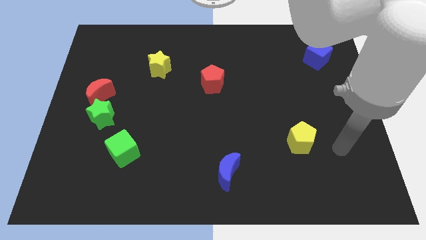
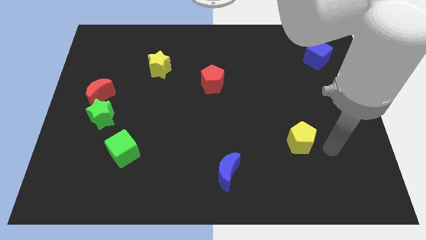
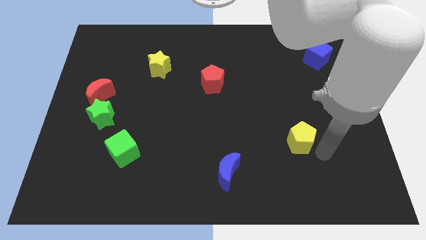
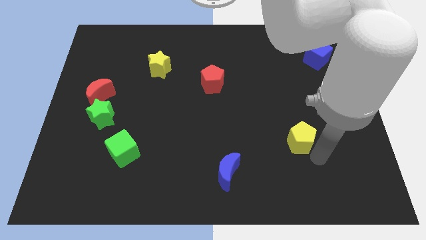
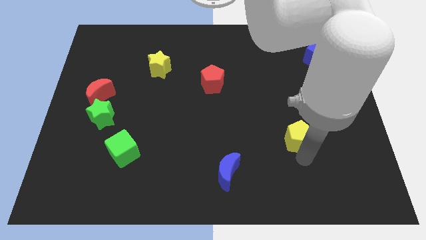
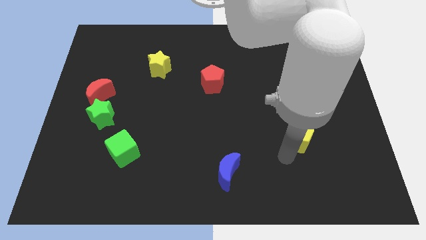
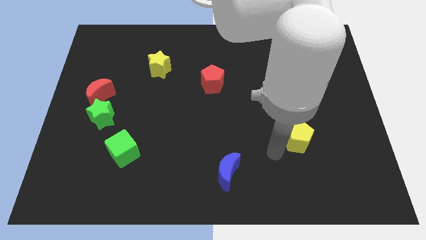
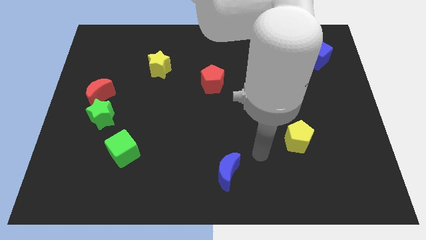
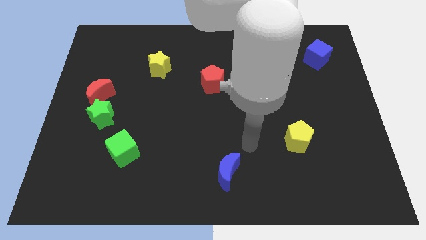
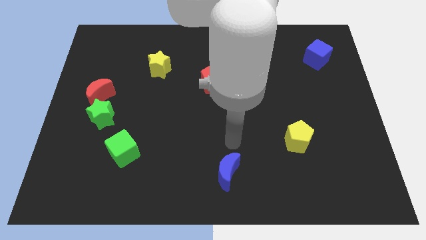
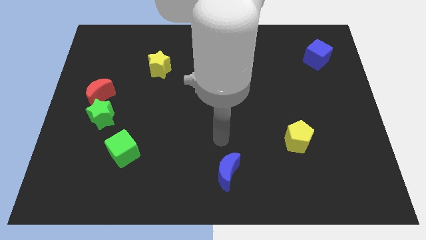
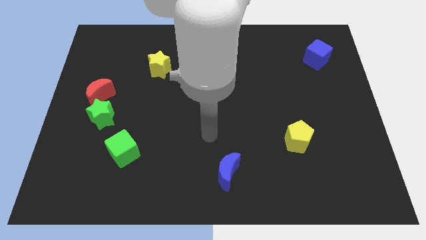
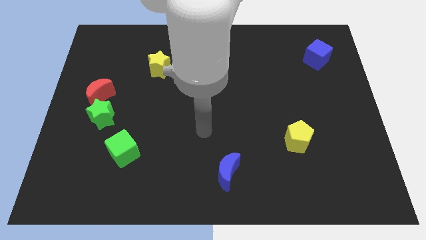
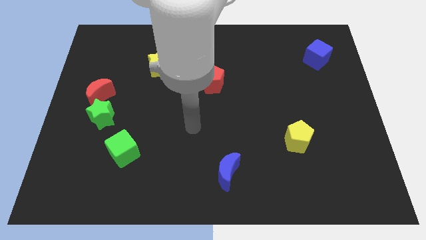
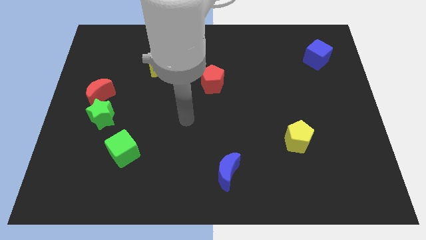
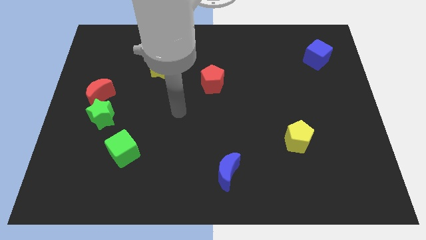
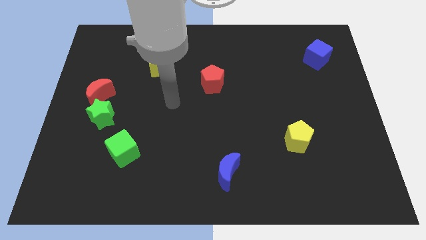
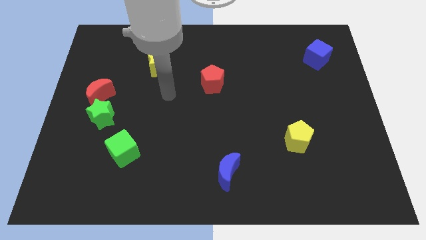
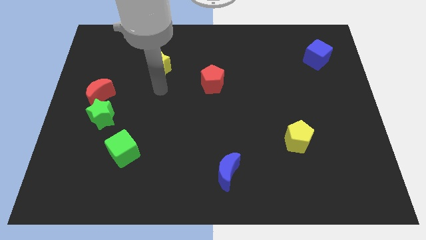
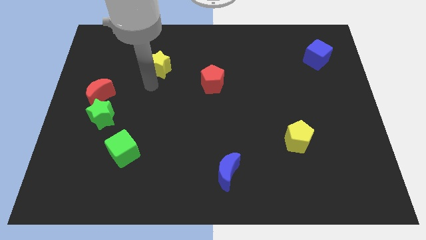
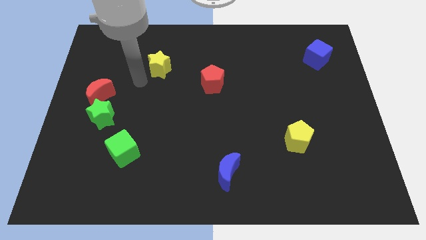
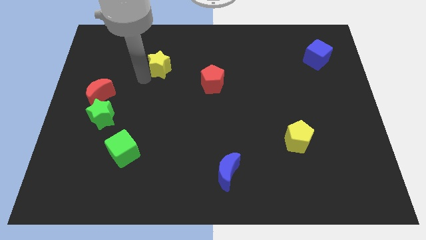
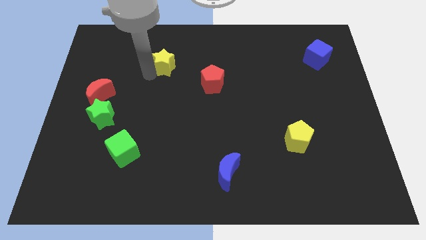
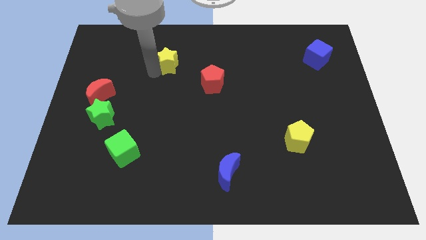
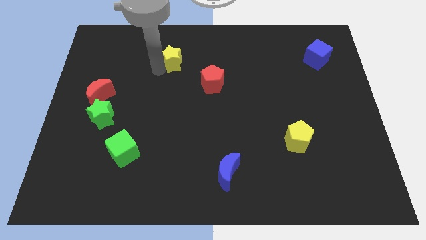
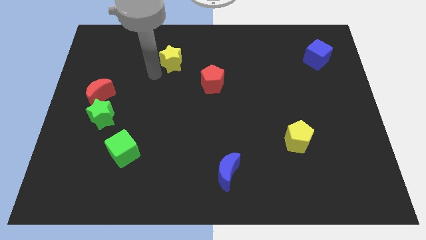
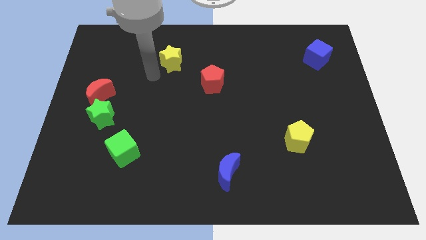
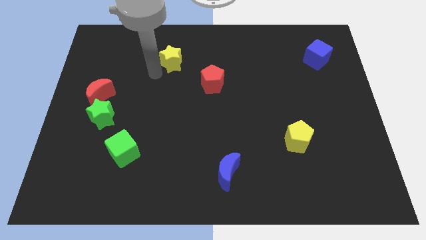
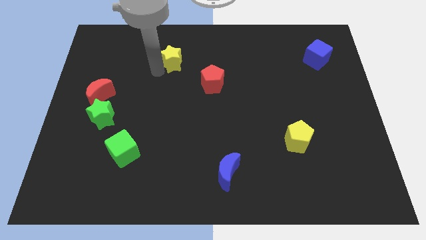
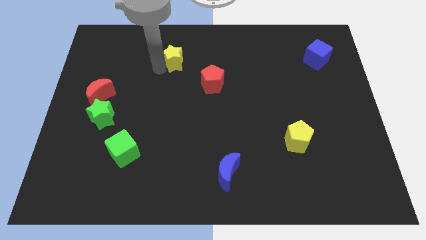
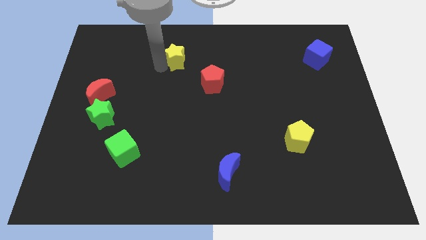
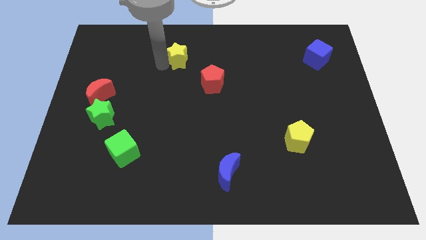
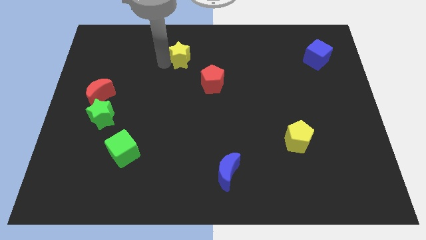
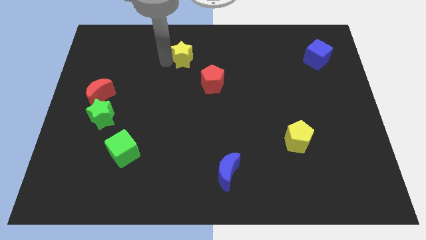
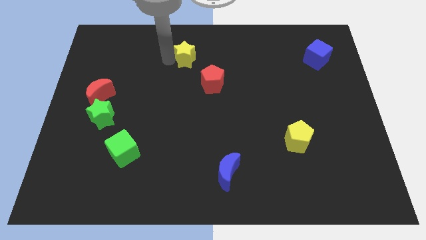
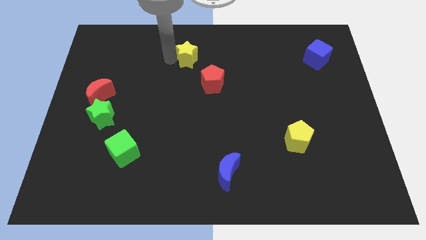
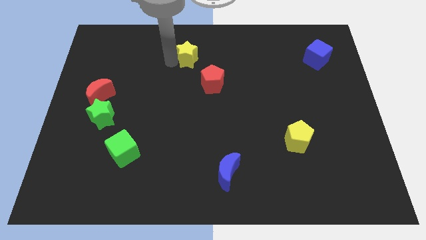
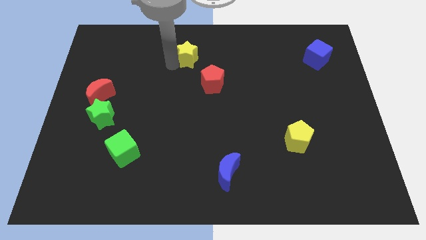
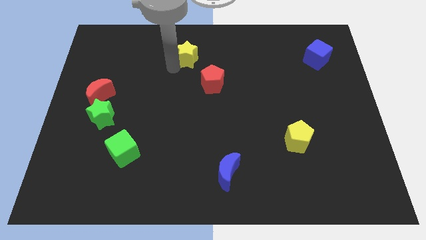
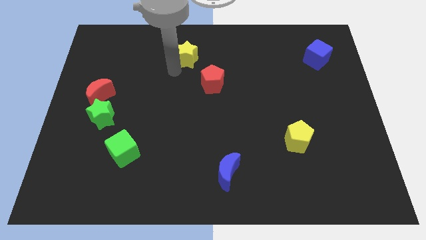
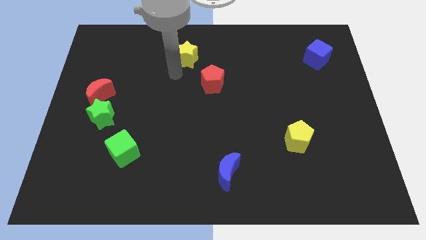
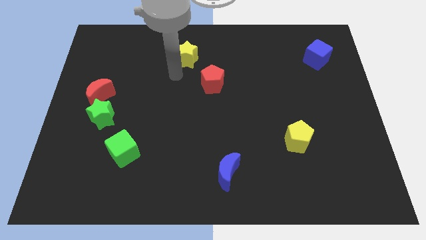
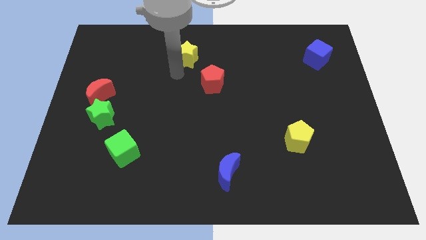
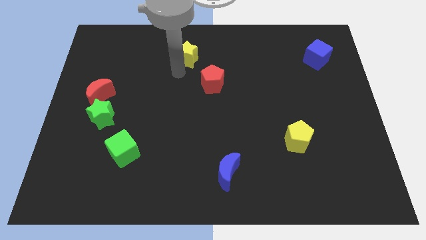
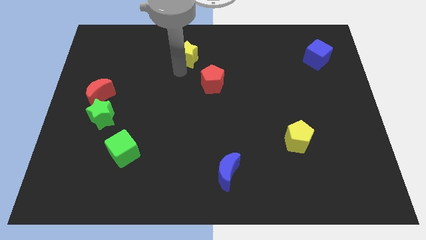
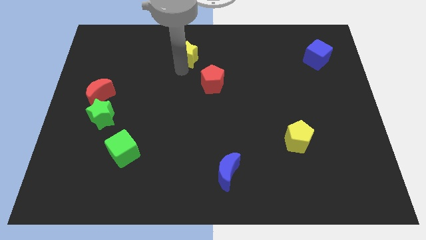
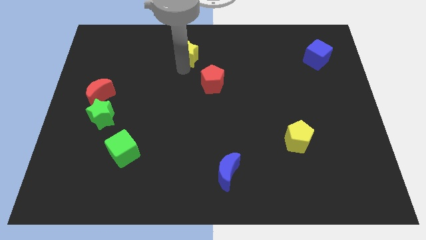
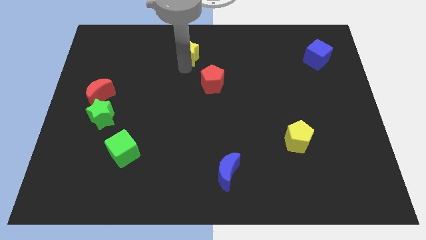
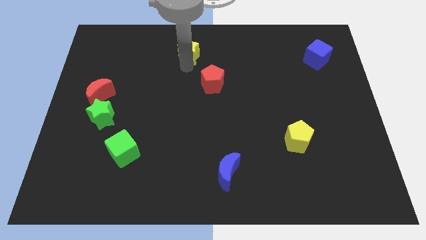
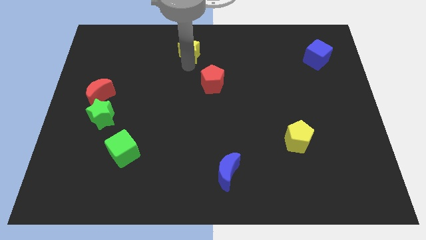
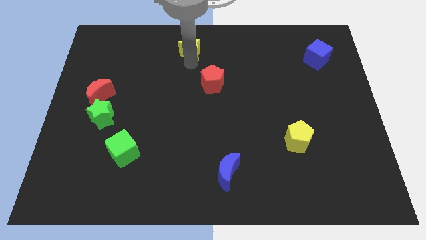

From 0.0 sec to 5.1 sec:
put the yellow star to the towards your base

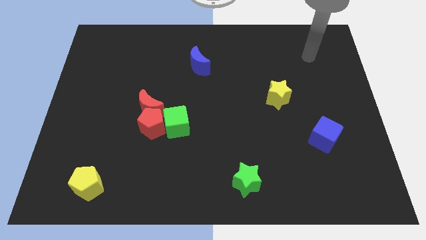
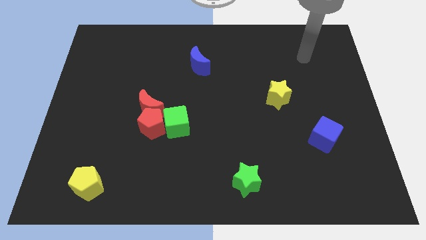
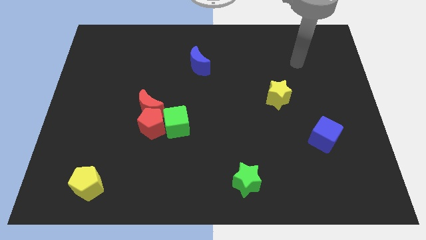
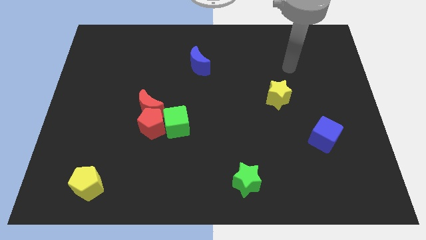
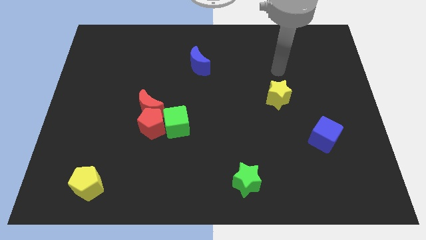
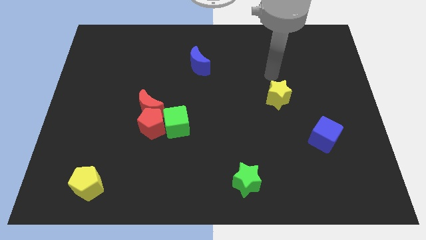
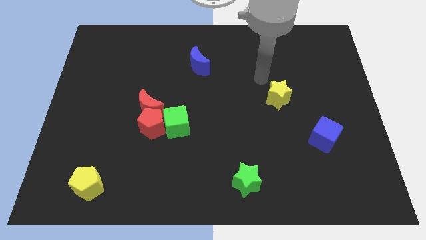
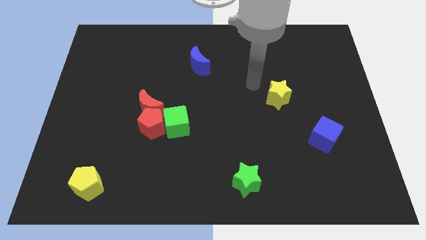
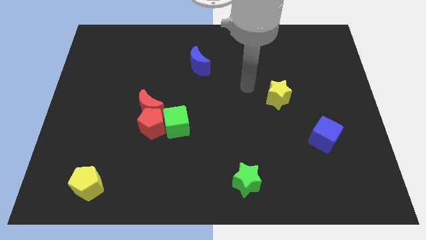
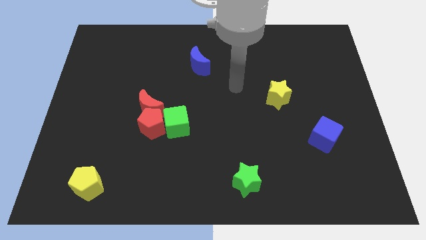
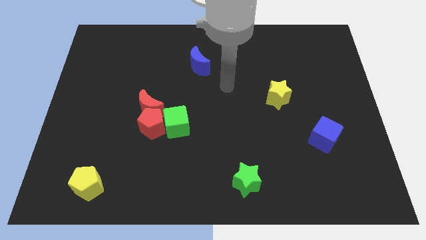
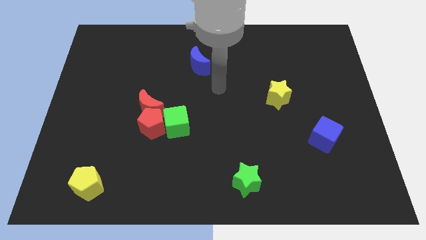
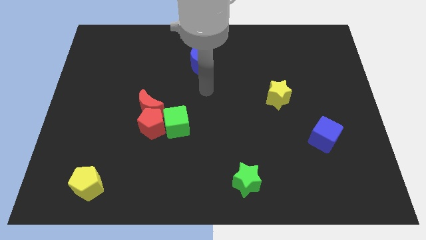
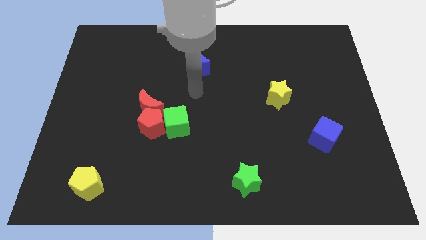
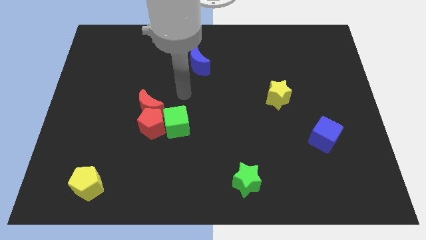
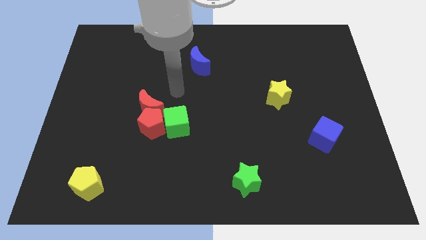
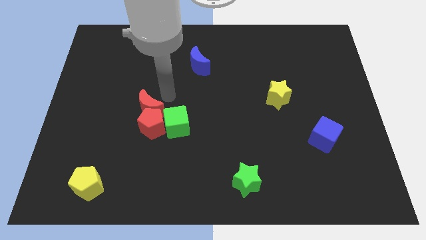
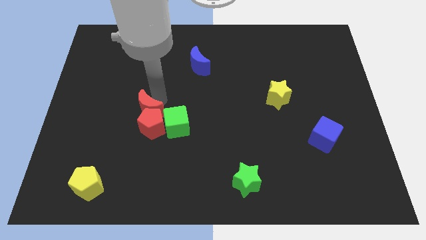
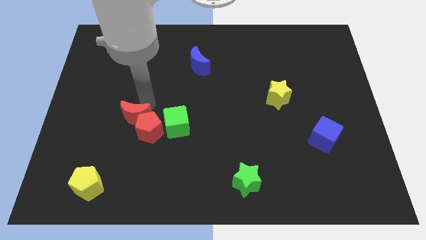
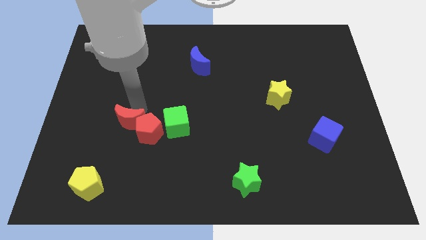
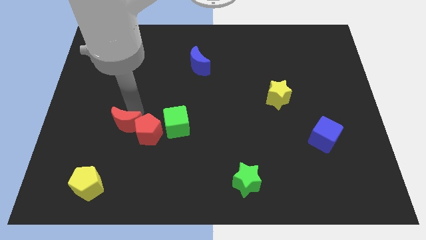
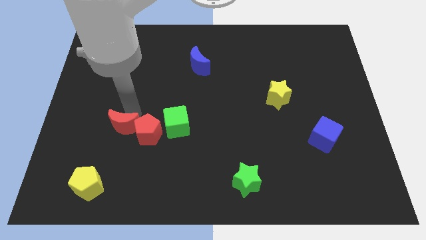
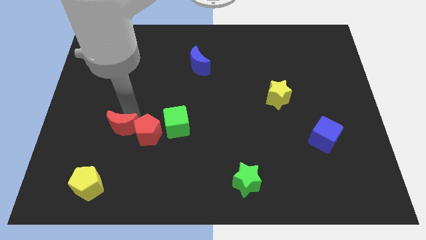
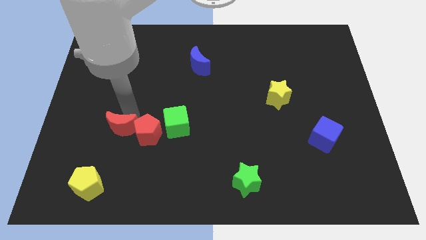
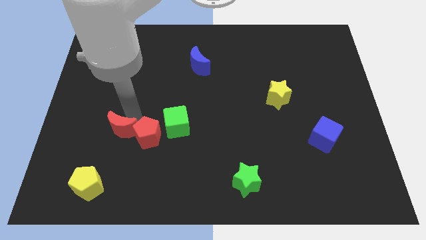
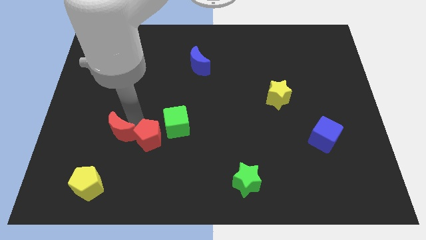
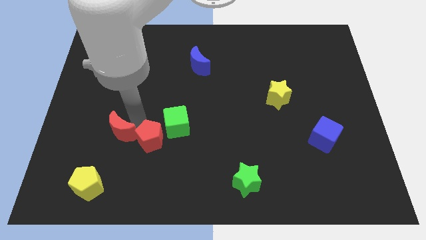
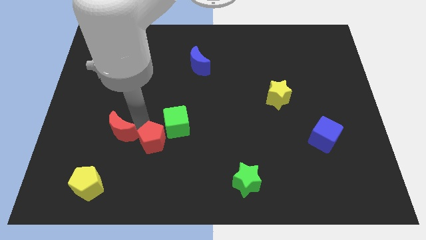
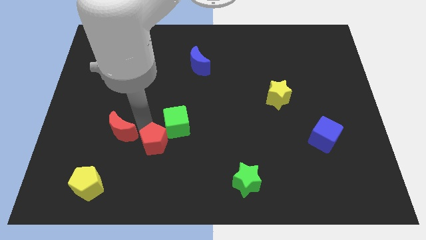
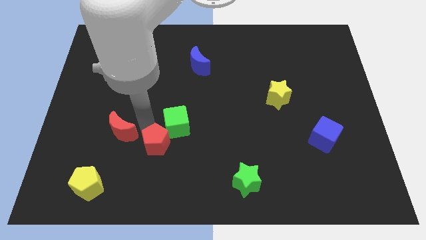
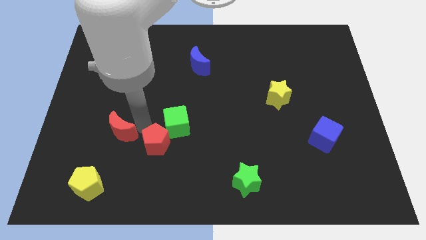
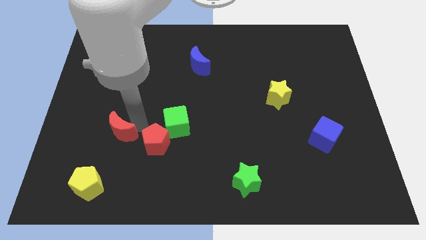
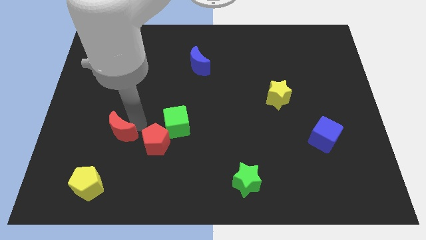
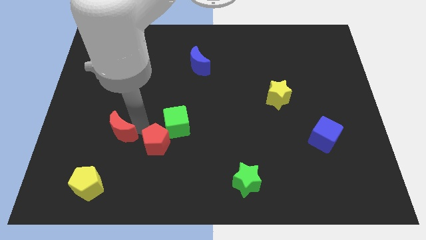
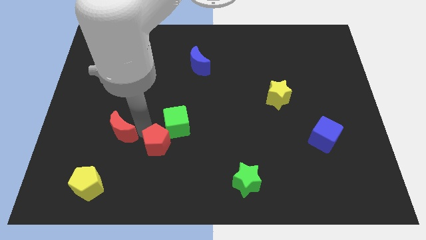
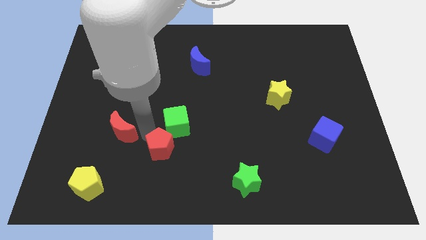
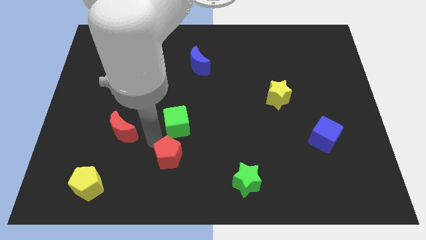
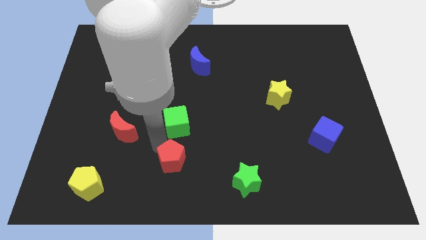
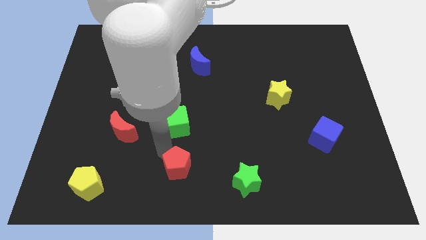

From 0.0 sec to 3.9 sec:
move the red pentagon to the bottom
